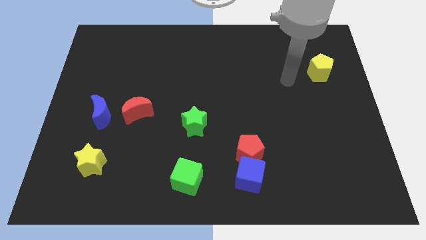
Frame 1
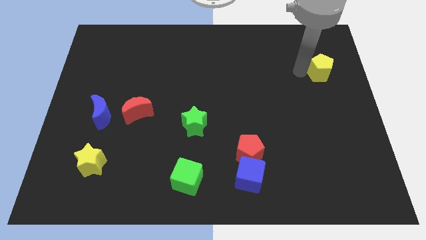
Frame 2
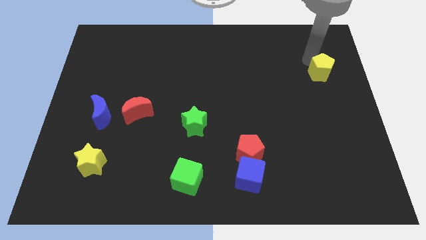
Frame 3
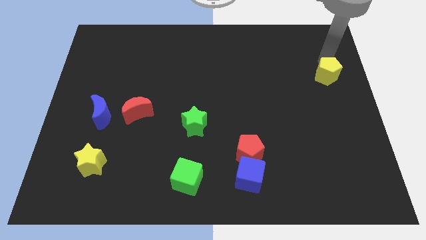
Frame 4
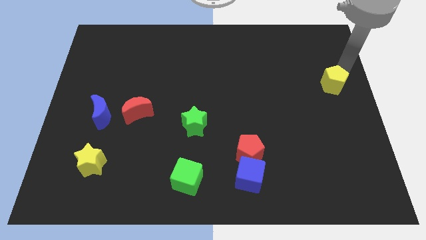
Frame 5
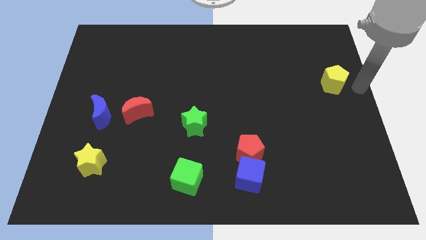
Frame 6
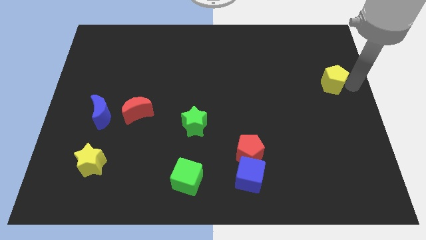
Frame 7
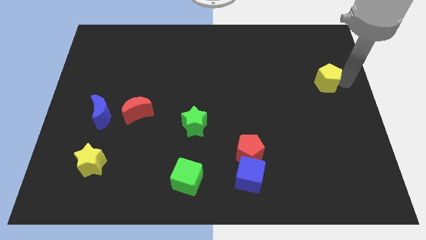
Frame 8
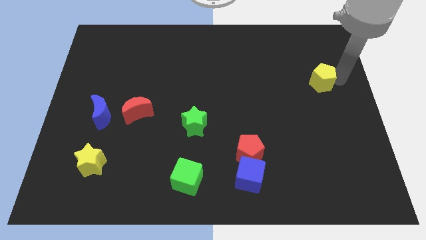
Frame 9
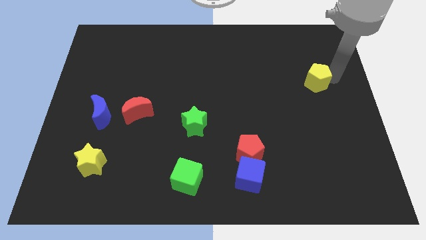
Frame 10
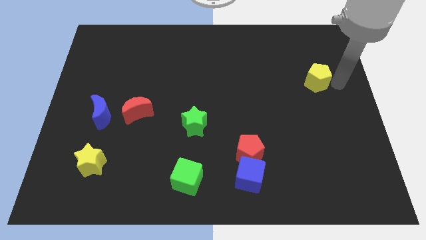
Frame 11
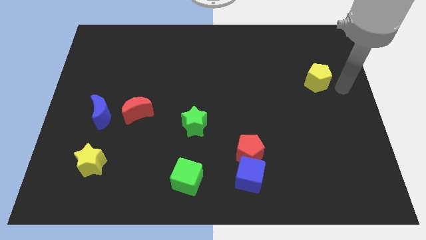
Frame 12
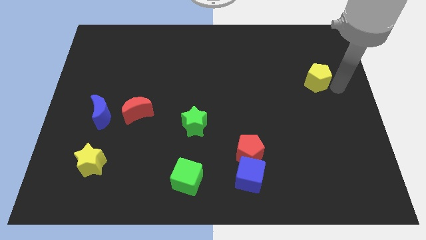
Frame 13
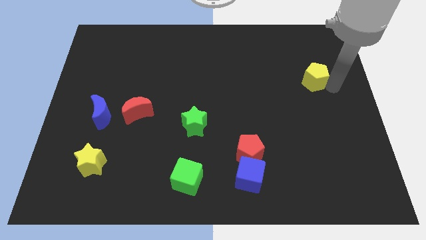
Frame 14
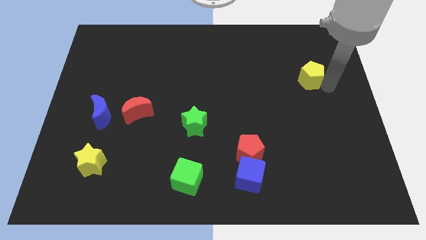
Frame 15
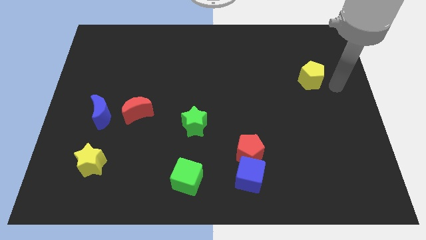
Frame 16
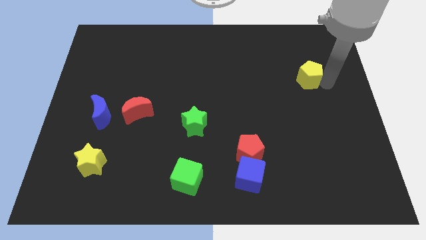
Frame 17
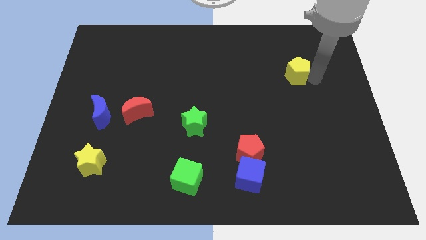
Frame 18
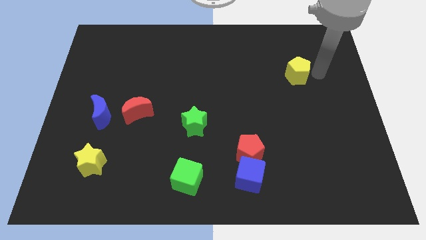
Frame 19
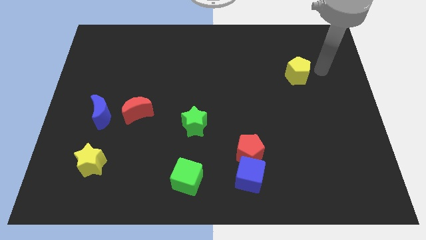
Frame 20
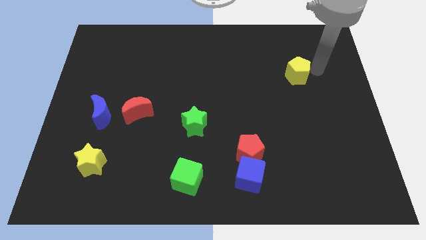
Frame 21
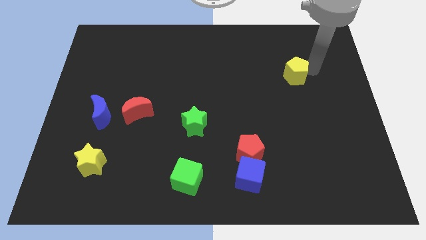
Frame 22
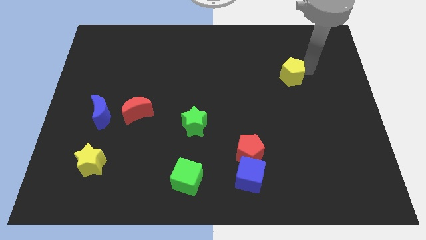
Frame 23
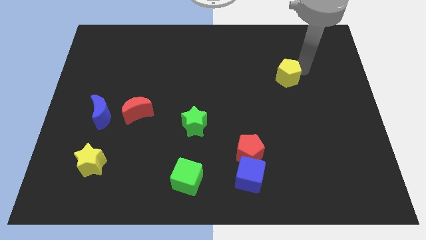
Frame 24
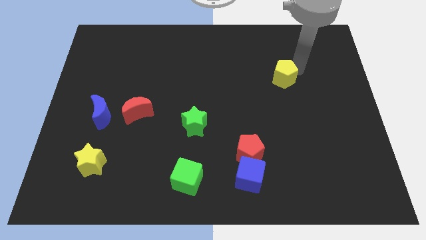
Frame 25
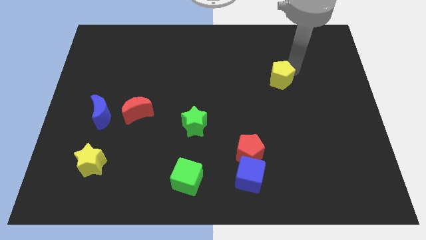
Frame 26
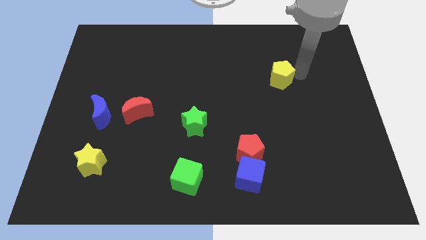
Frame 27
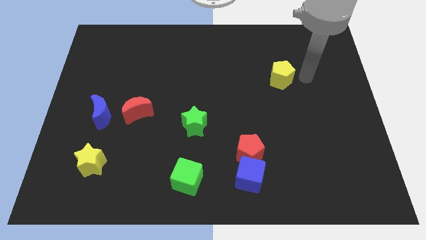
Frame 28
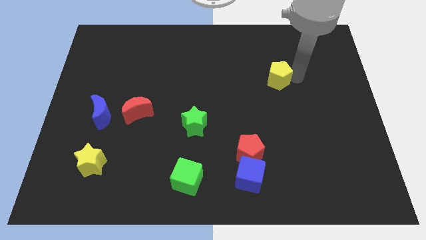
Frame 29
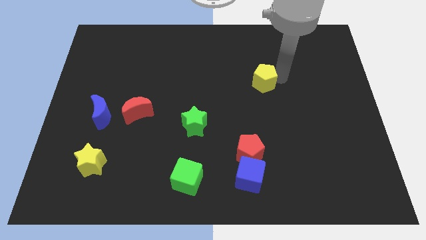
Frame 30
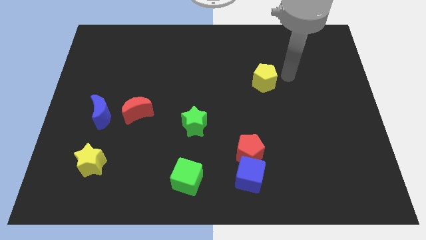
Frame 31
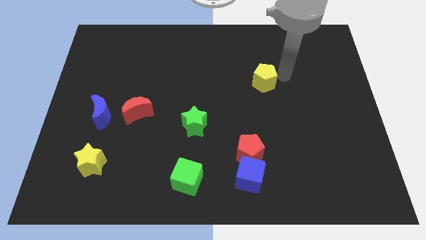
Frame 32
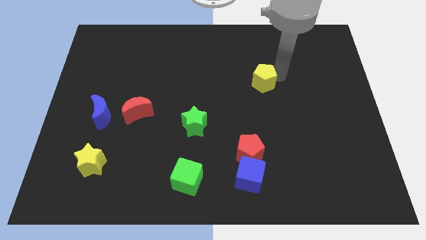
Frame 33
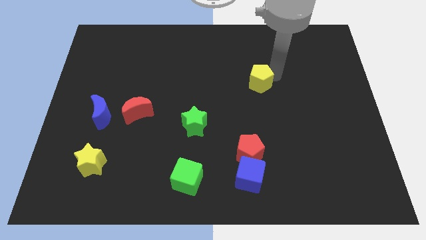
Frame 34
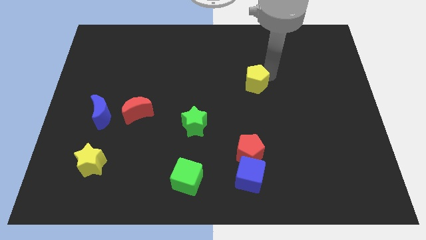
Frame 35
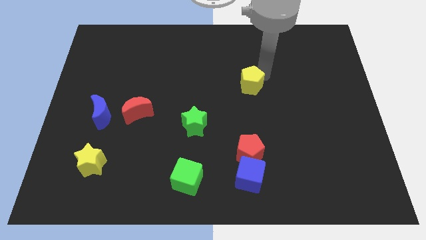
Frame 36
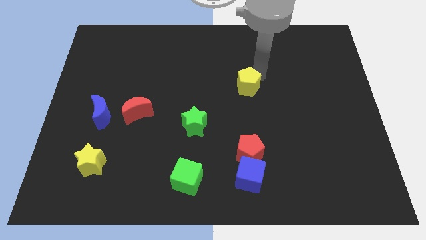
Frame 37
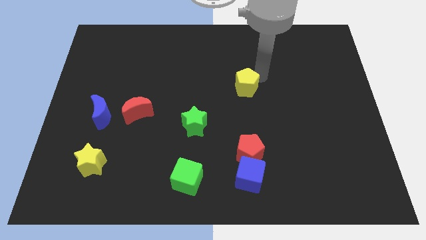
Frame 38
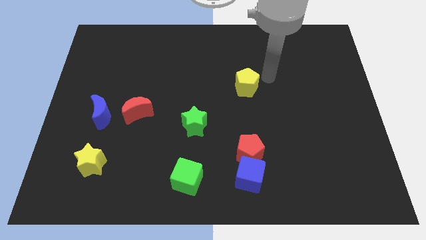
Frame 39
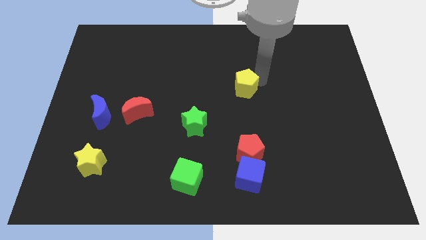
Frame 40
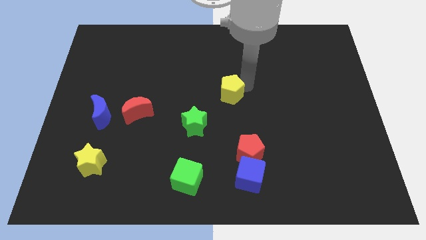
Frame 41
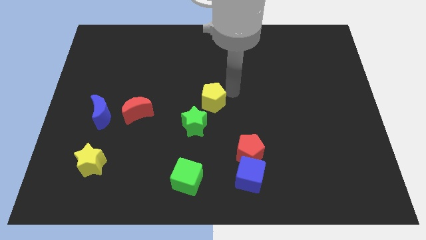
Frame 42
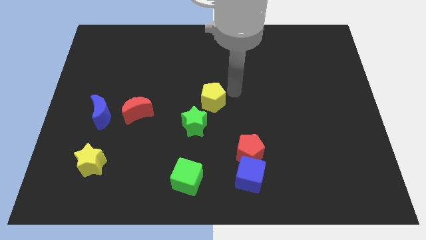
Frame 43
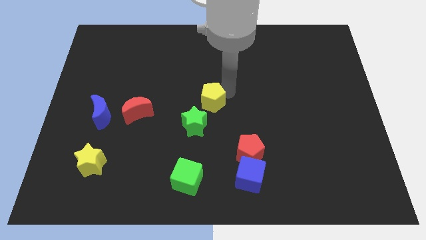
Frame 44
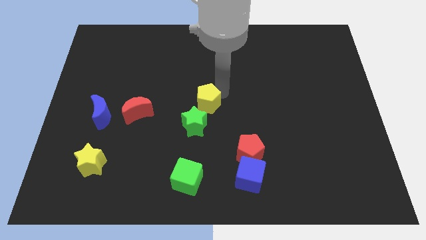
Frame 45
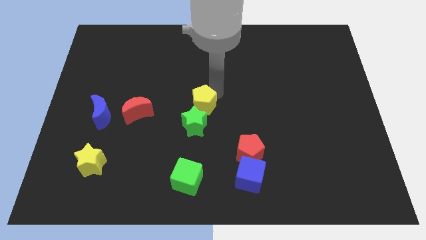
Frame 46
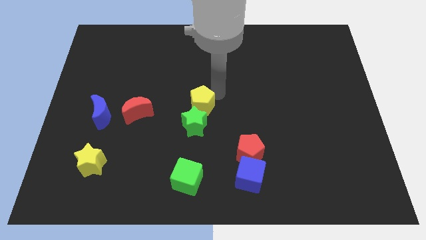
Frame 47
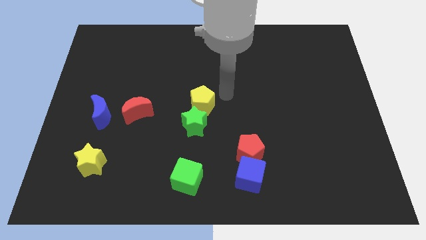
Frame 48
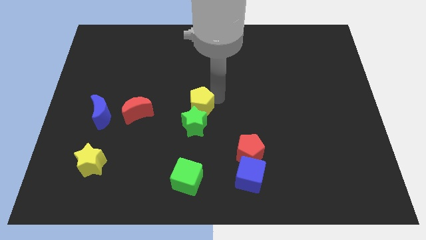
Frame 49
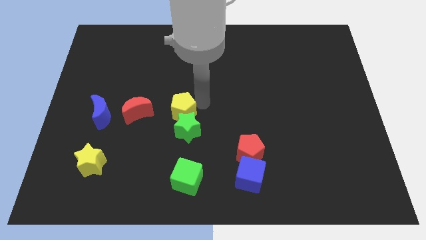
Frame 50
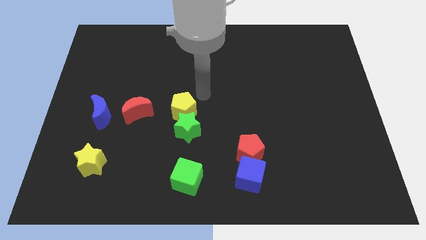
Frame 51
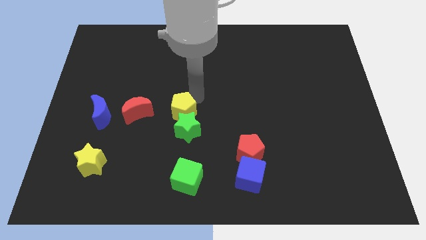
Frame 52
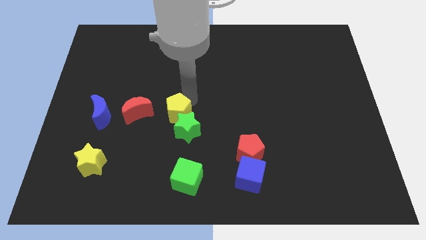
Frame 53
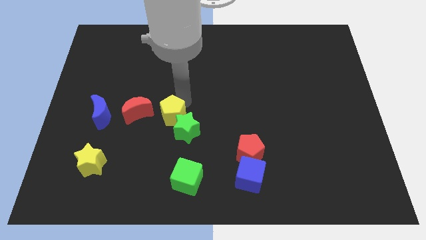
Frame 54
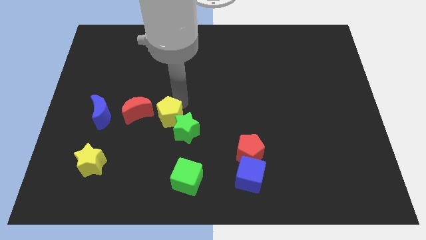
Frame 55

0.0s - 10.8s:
slide the yellow pentagon to the bottom right side of the red moon
